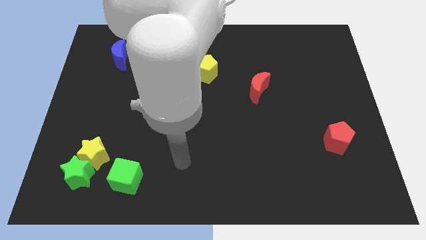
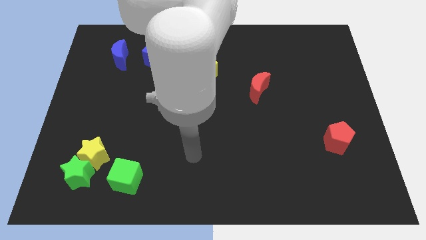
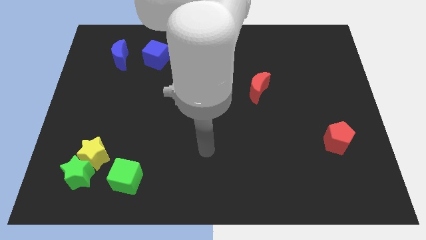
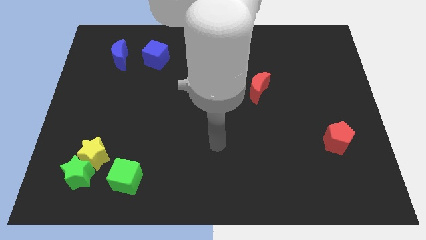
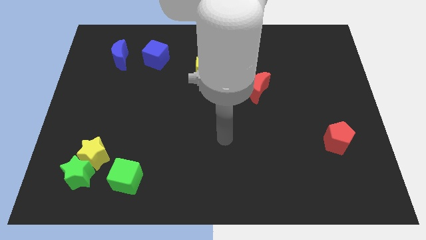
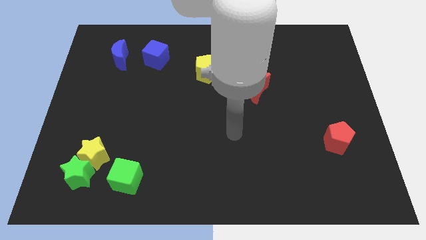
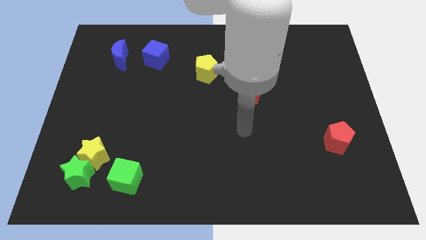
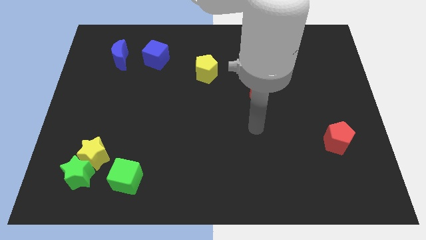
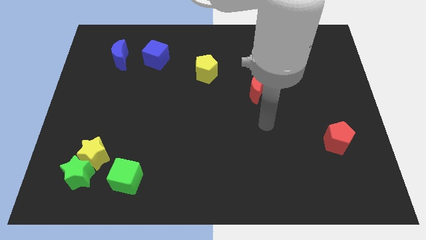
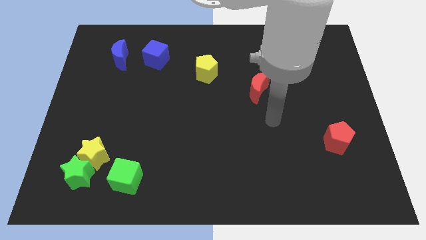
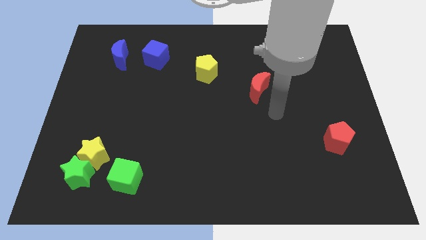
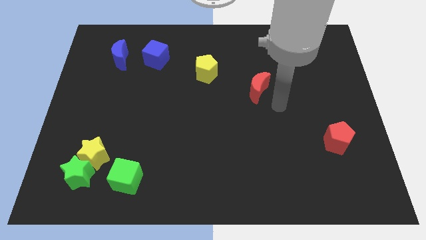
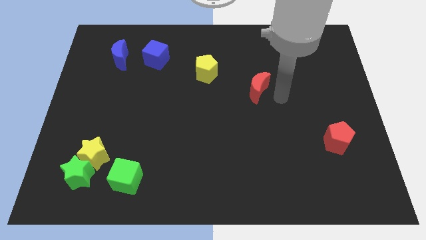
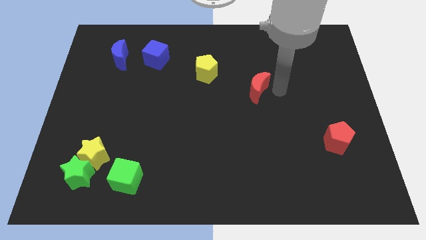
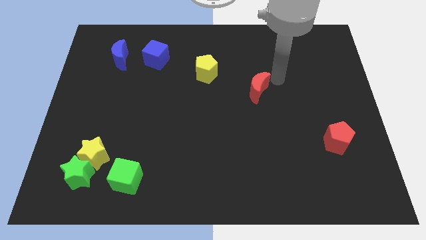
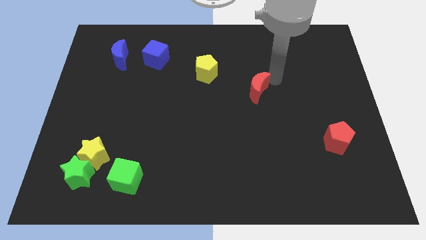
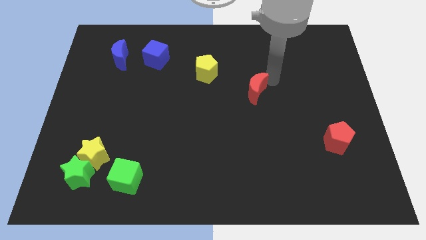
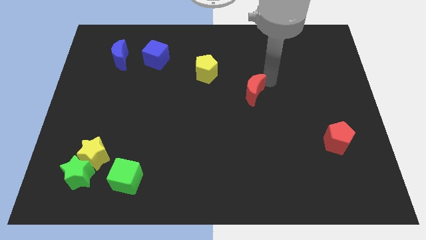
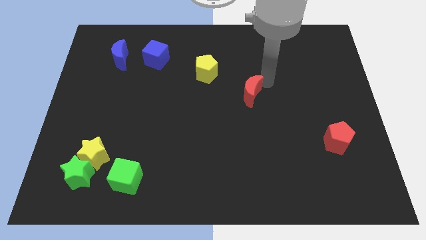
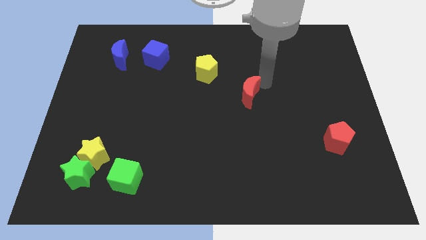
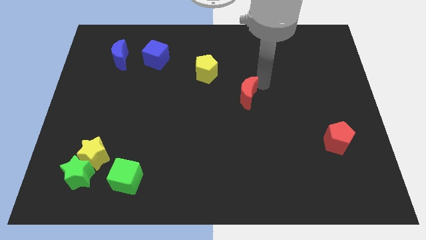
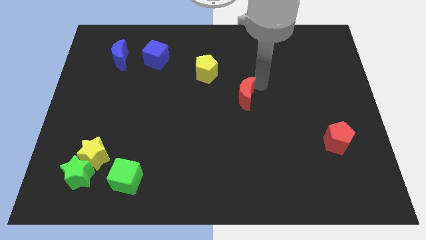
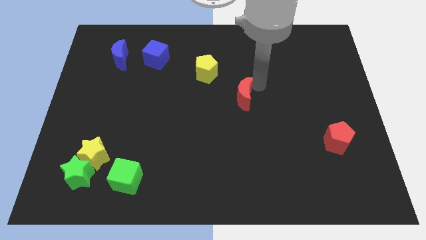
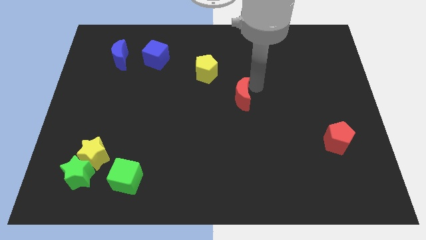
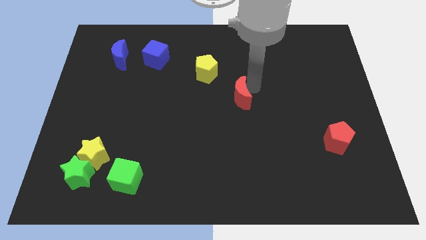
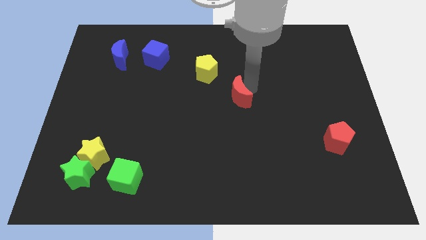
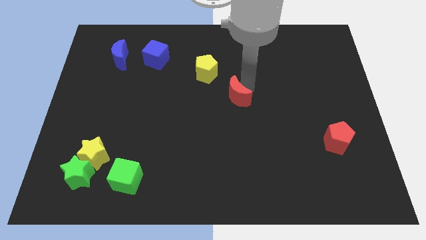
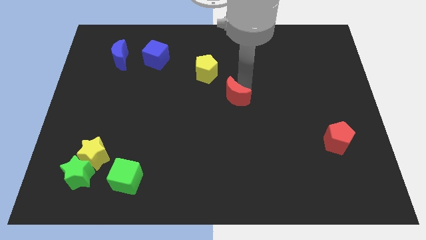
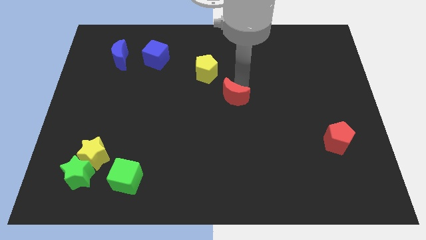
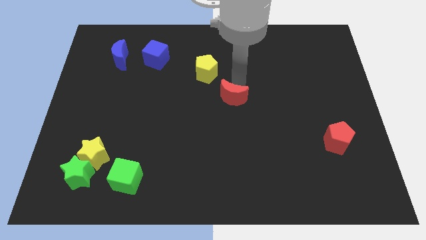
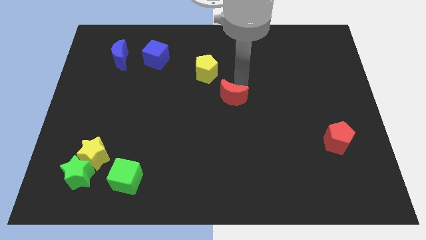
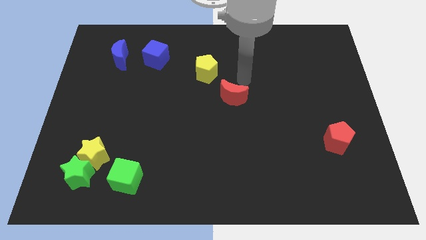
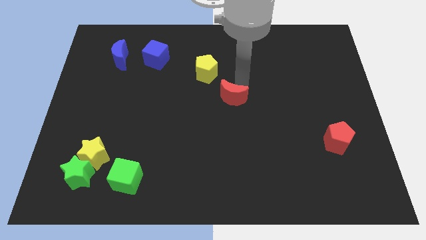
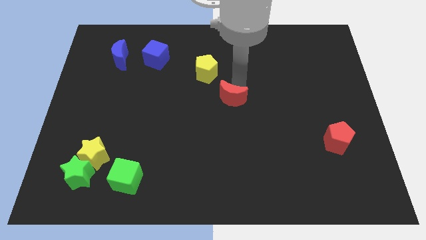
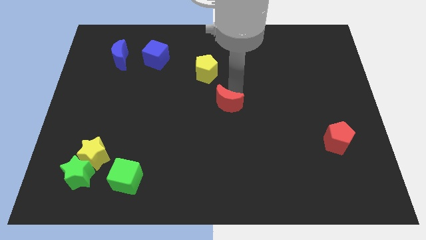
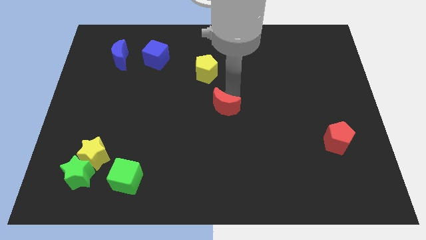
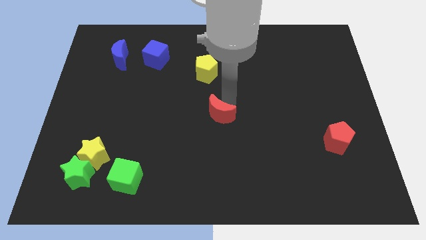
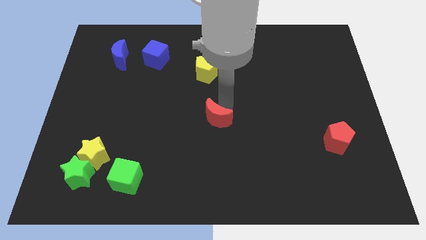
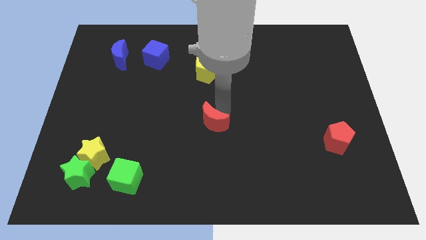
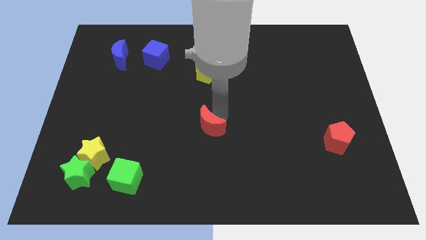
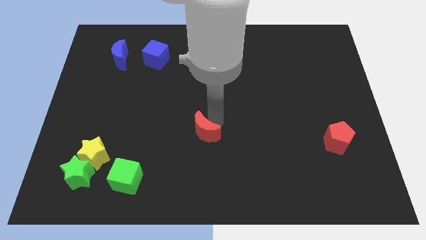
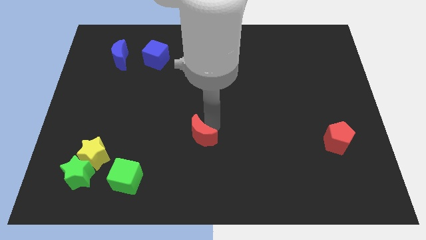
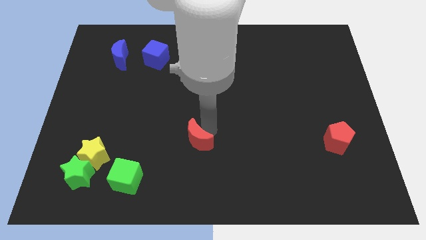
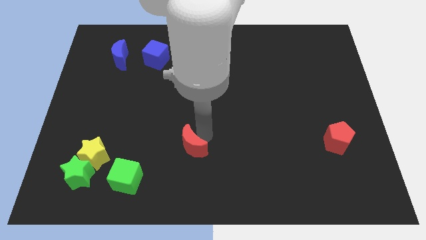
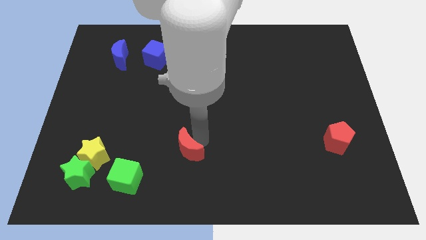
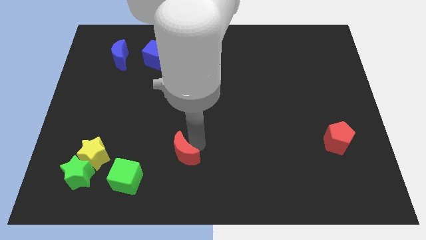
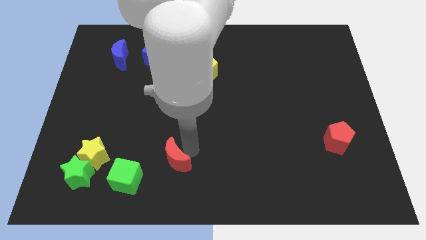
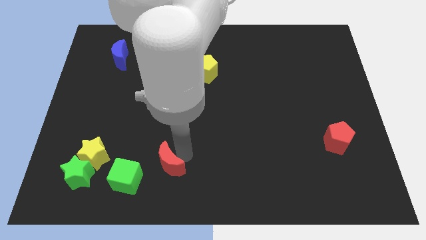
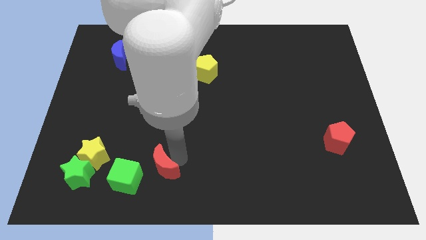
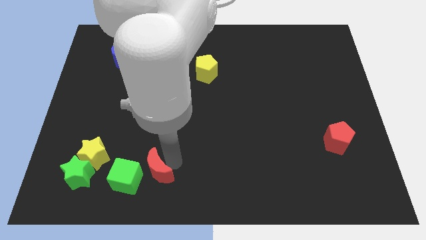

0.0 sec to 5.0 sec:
move the red moon to the right of the green star

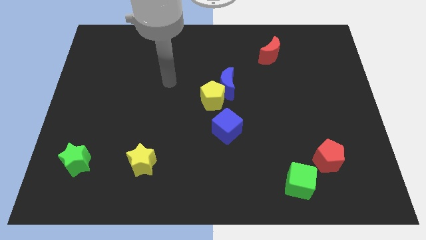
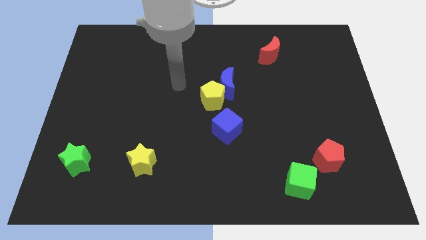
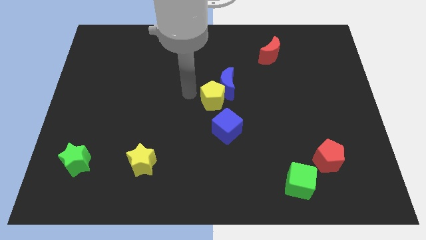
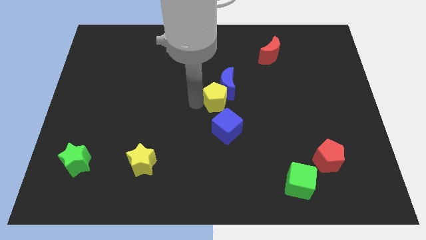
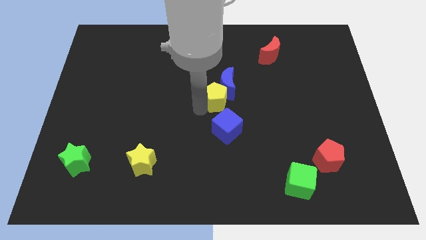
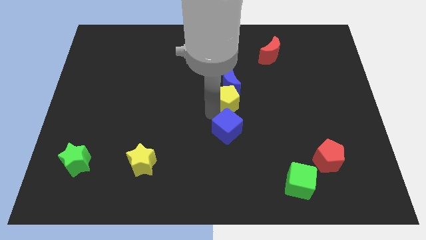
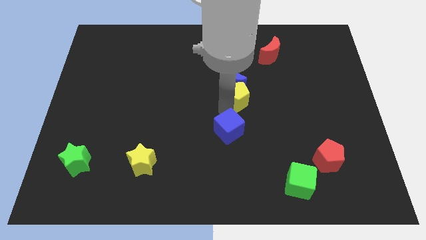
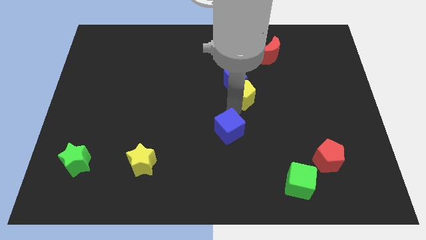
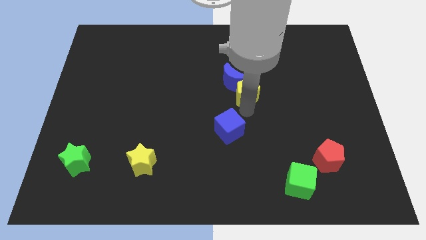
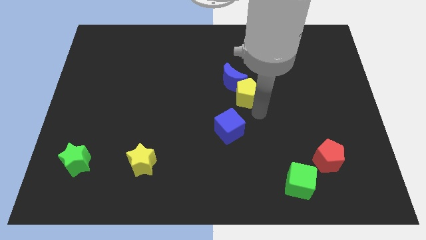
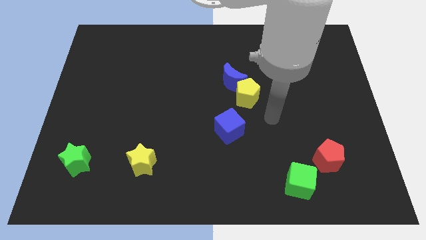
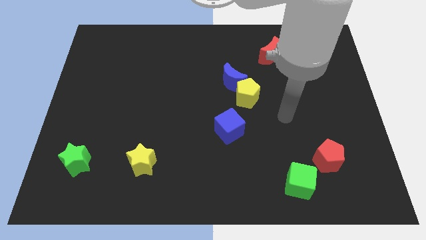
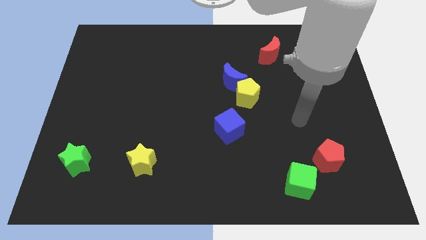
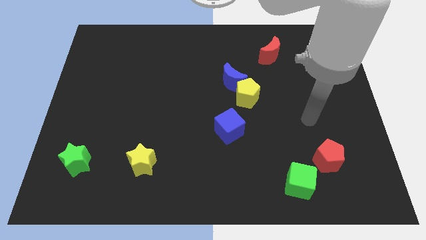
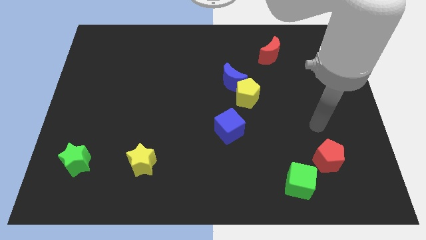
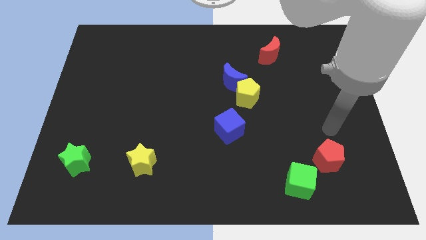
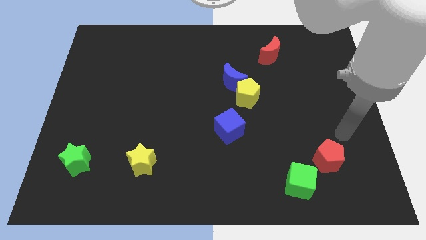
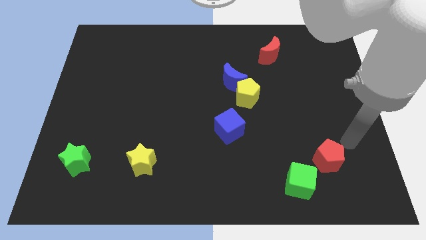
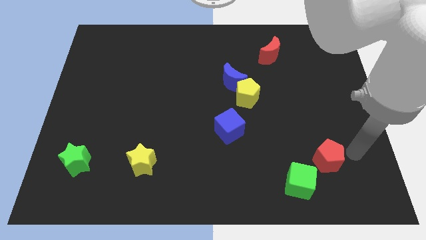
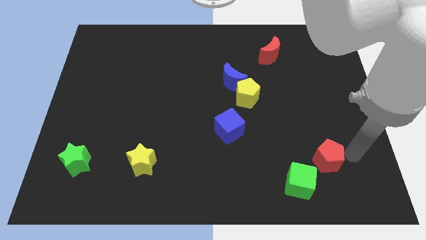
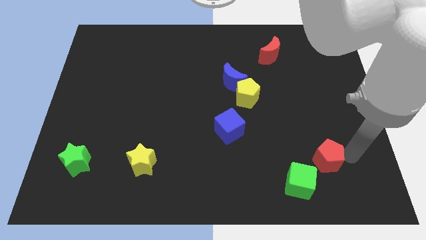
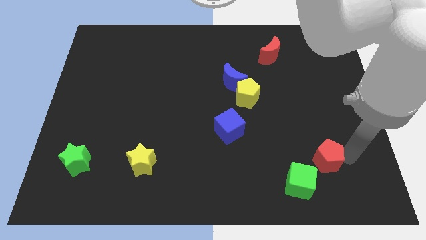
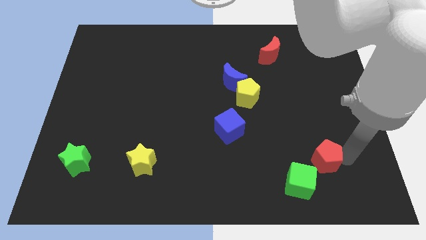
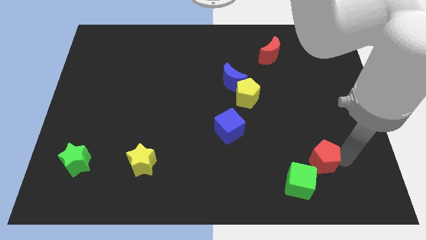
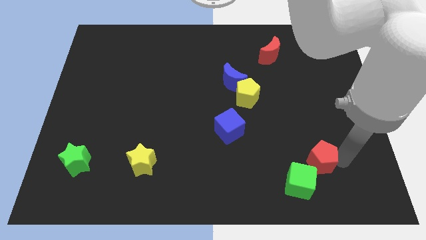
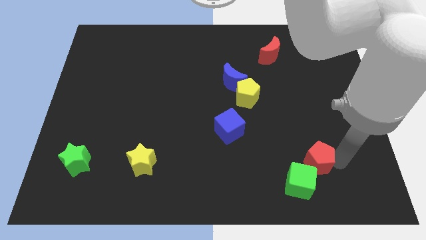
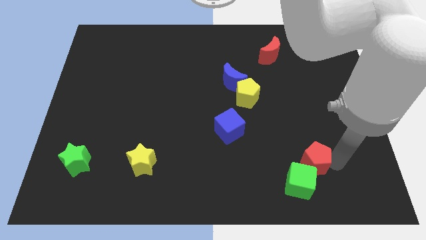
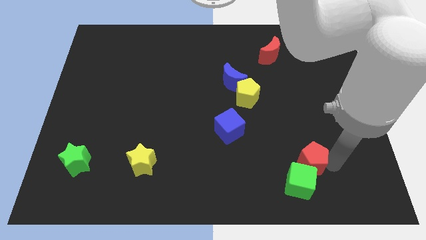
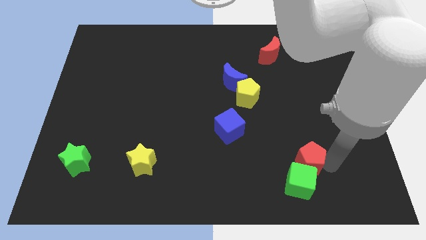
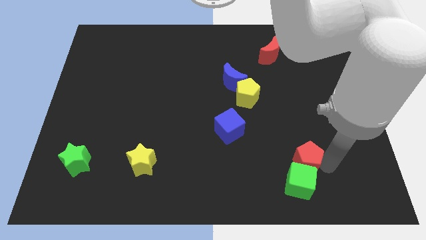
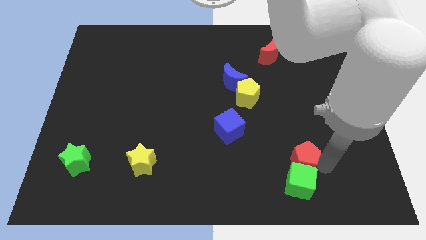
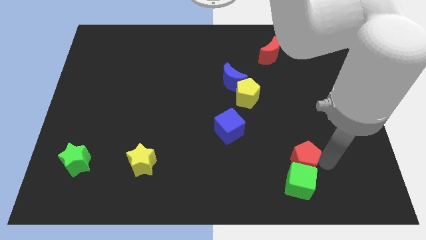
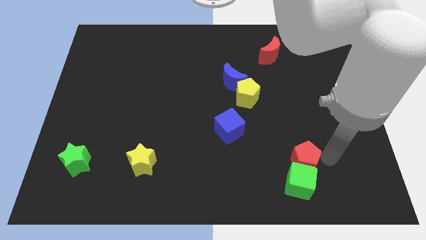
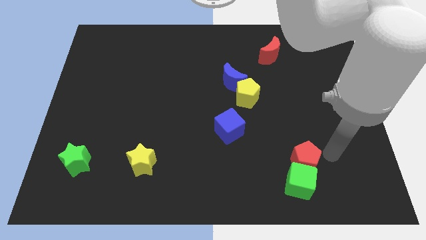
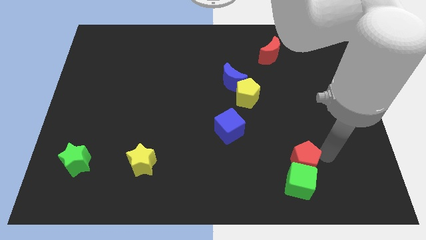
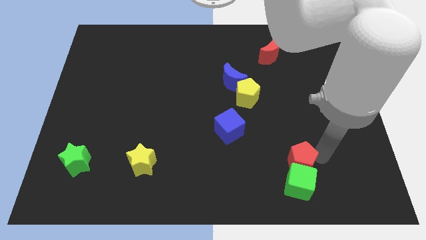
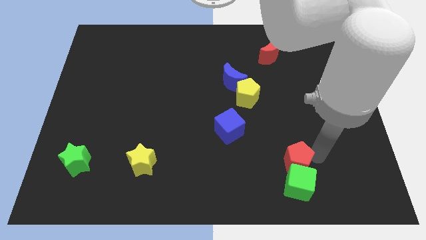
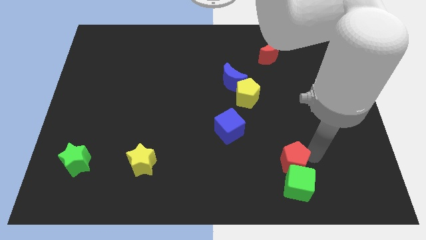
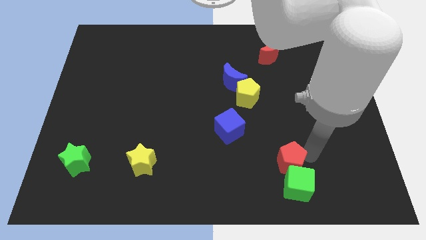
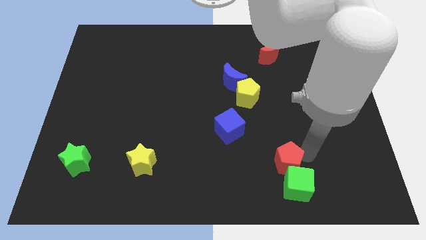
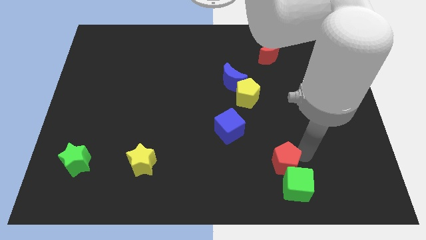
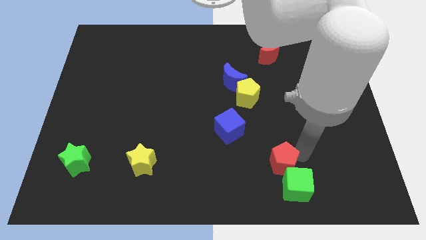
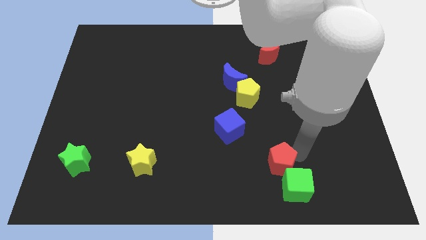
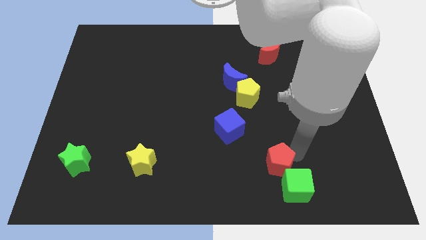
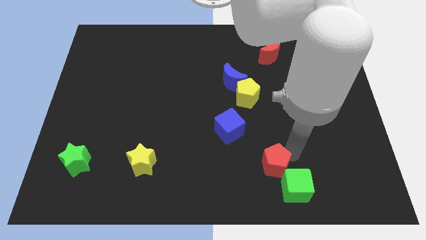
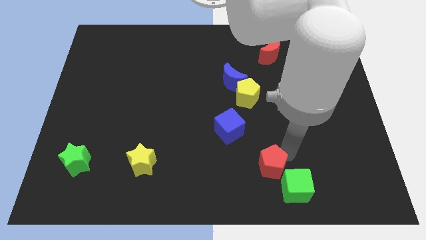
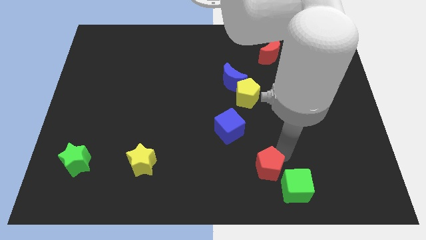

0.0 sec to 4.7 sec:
push the red pentagon just left of the green cube
